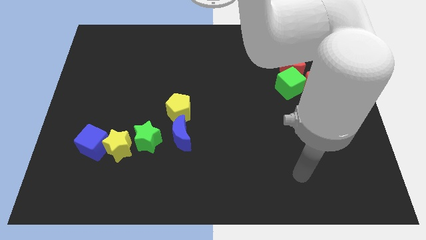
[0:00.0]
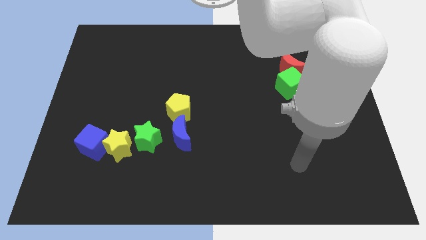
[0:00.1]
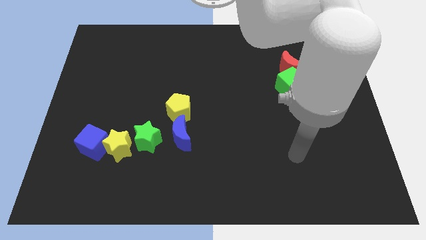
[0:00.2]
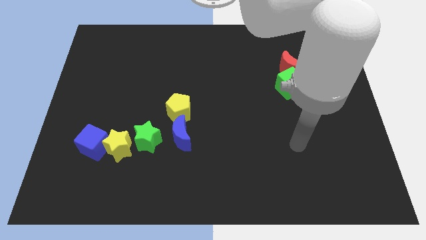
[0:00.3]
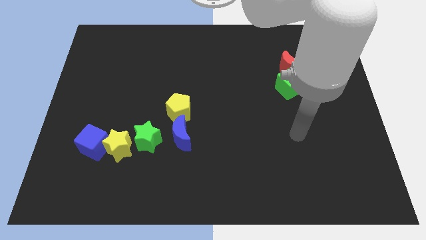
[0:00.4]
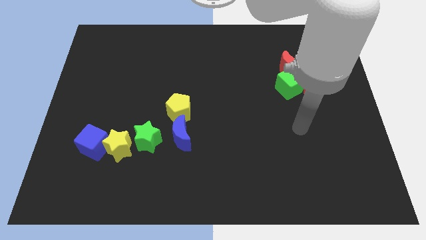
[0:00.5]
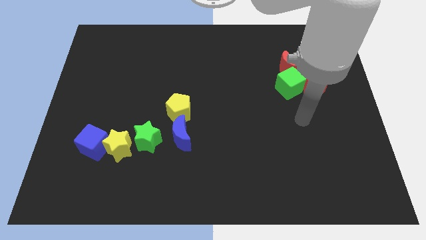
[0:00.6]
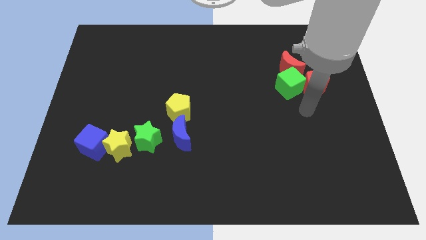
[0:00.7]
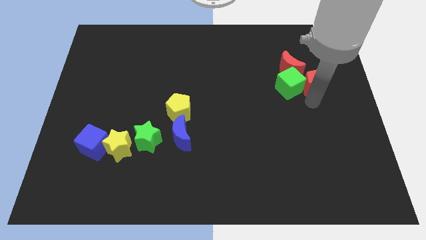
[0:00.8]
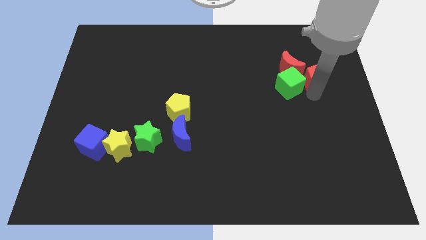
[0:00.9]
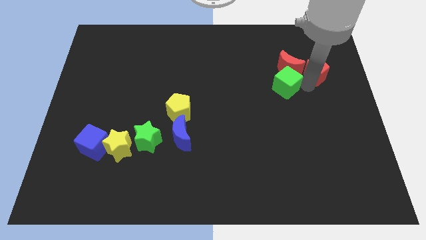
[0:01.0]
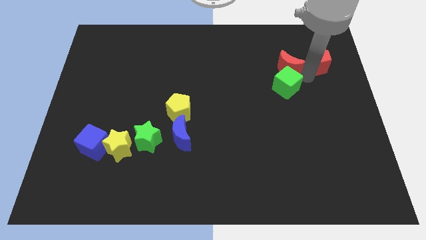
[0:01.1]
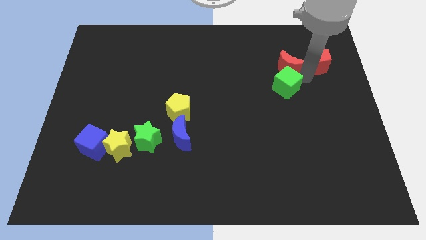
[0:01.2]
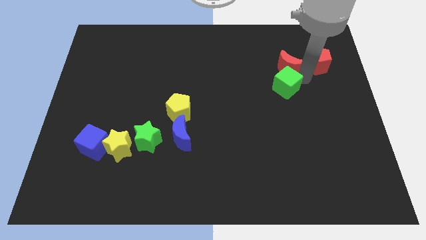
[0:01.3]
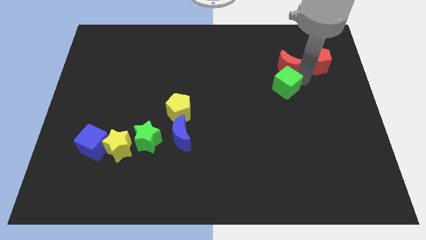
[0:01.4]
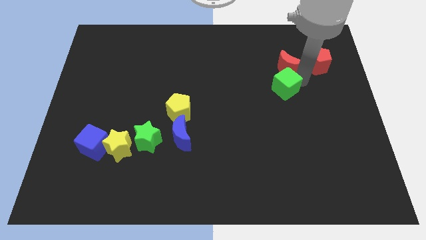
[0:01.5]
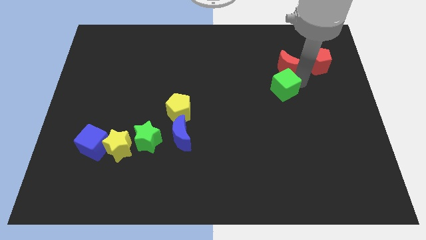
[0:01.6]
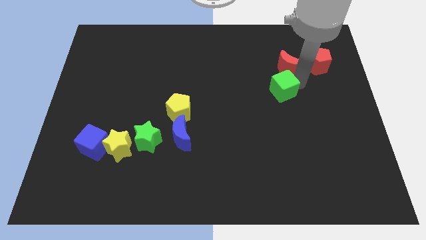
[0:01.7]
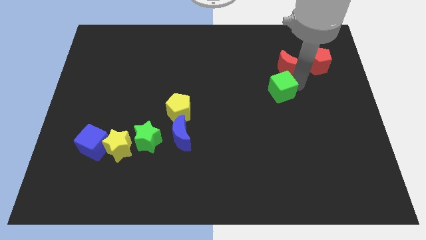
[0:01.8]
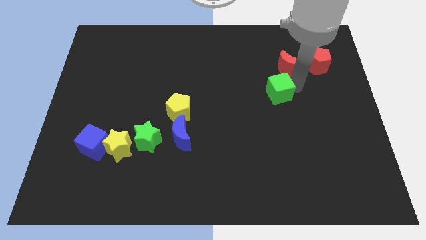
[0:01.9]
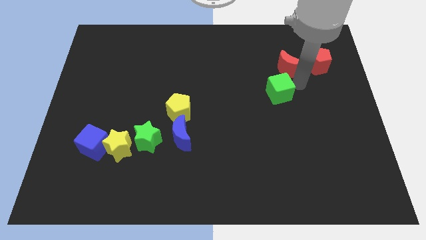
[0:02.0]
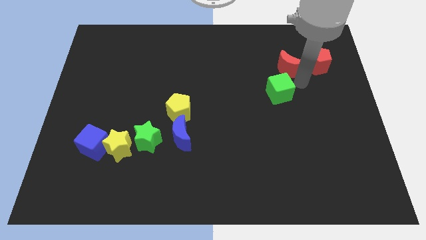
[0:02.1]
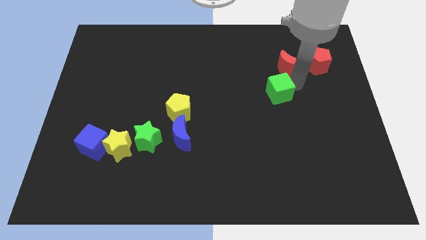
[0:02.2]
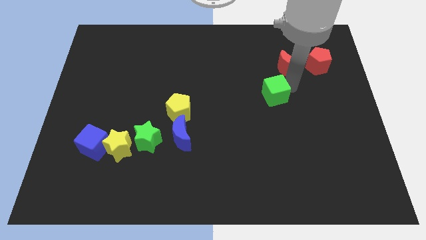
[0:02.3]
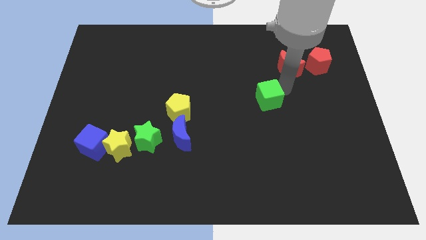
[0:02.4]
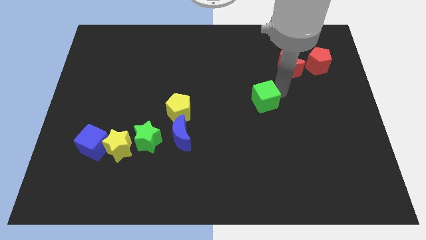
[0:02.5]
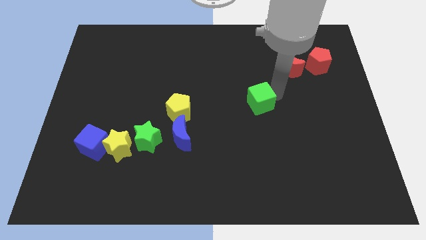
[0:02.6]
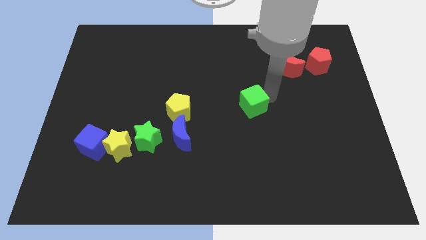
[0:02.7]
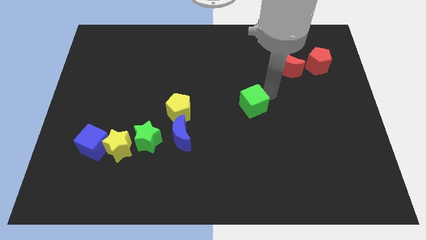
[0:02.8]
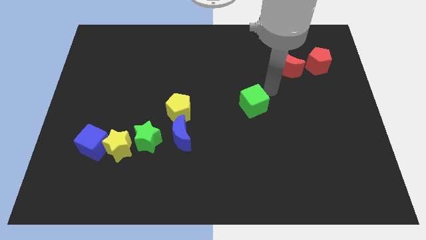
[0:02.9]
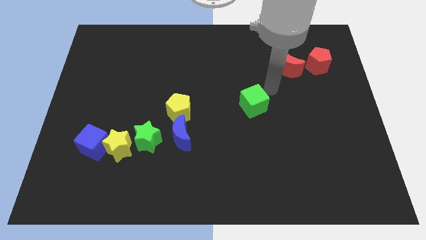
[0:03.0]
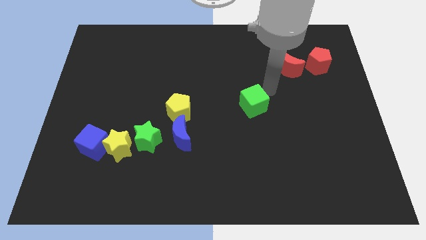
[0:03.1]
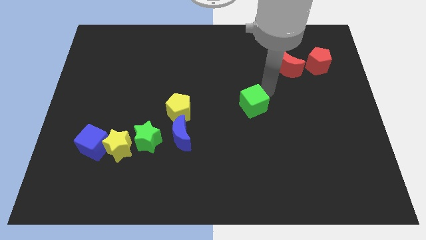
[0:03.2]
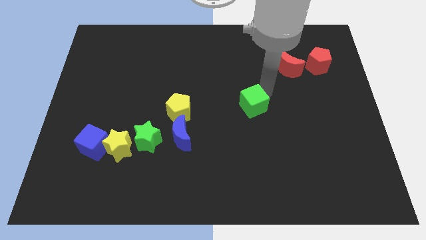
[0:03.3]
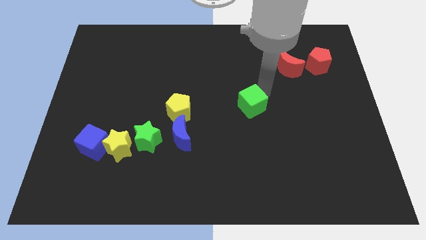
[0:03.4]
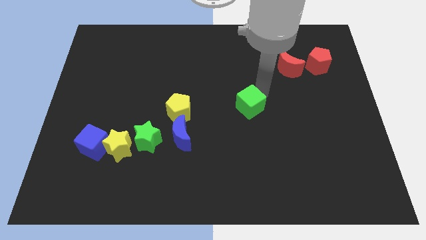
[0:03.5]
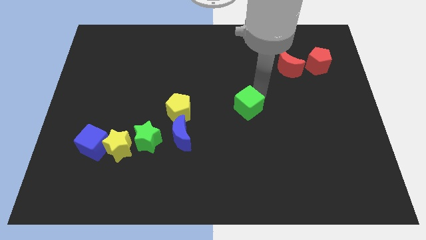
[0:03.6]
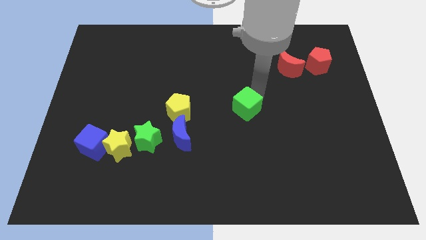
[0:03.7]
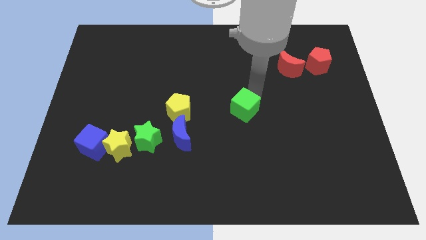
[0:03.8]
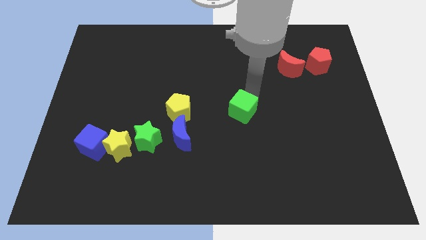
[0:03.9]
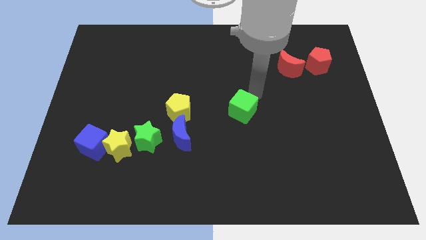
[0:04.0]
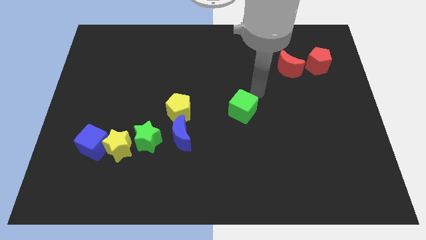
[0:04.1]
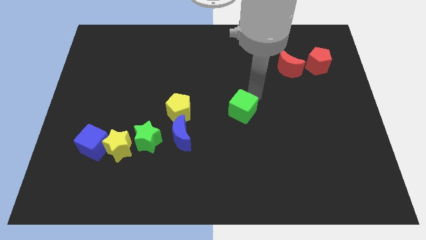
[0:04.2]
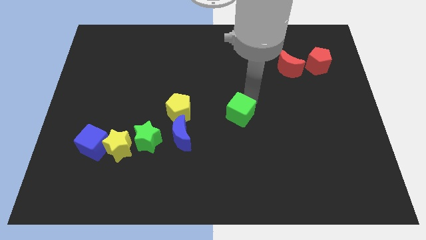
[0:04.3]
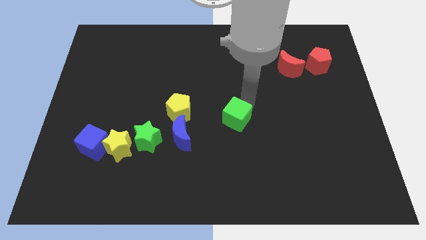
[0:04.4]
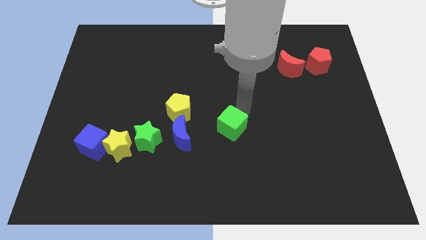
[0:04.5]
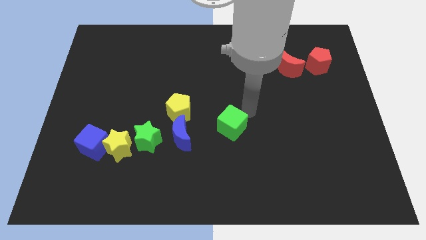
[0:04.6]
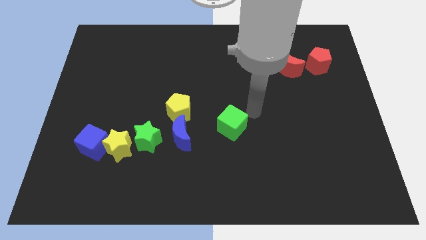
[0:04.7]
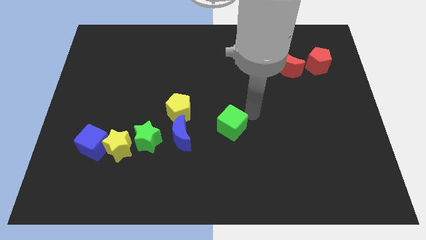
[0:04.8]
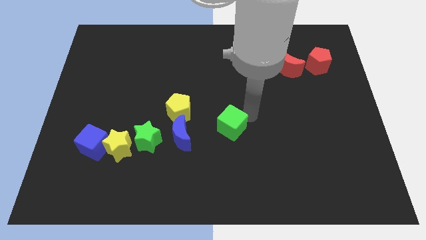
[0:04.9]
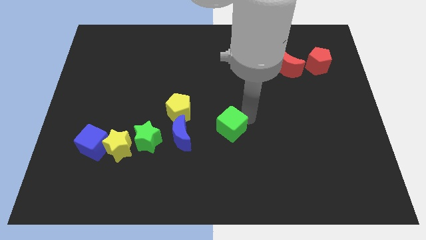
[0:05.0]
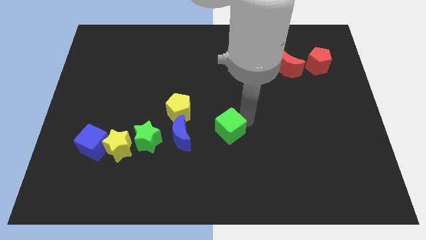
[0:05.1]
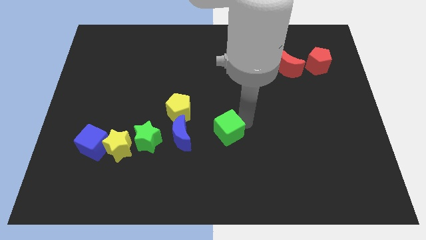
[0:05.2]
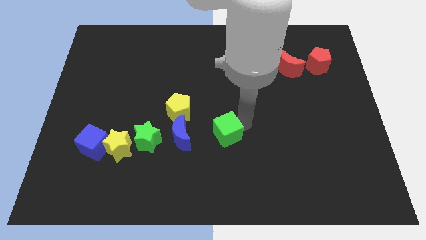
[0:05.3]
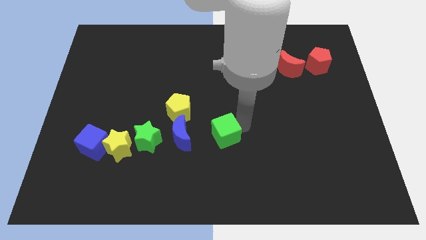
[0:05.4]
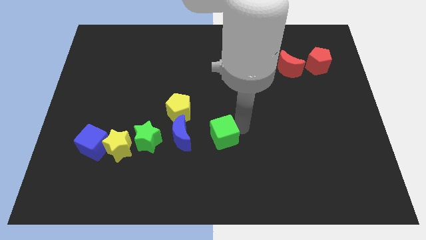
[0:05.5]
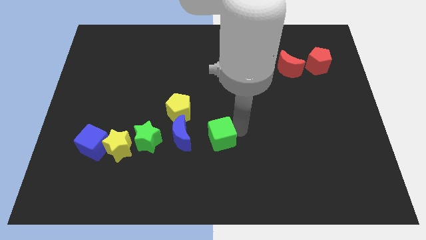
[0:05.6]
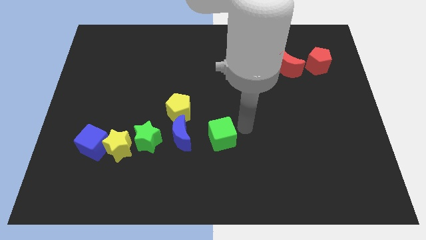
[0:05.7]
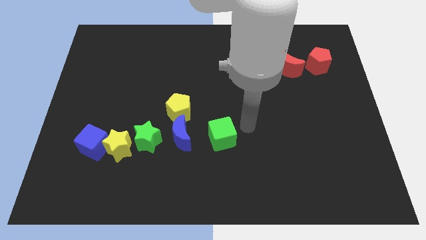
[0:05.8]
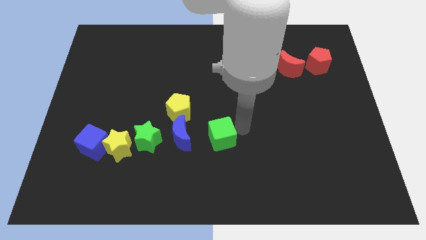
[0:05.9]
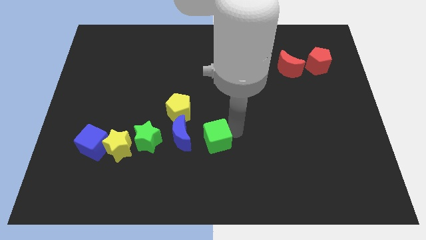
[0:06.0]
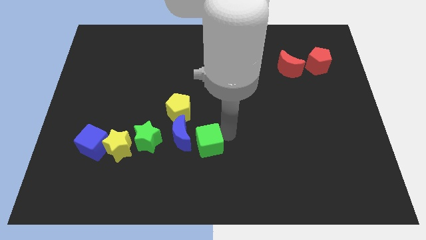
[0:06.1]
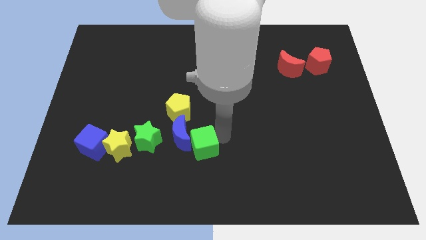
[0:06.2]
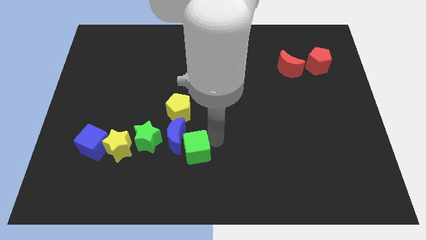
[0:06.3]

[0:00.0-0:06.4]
slide the green cube right of the yellow star

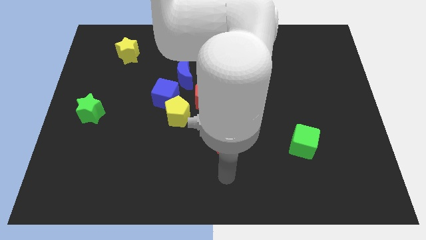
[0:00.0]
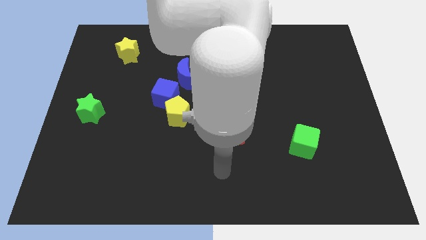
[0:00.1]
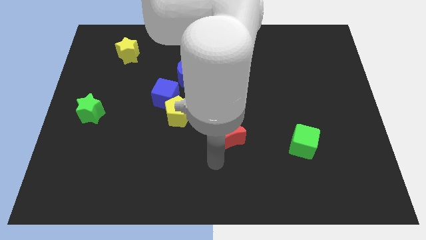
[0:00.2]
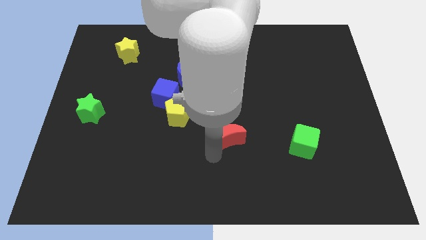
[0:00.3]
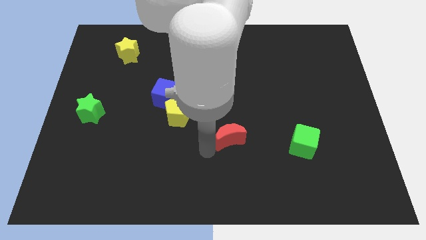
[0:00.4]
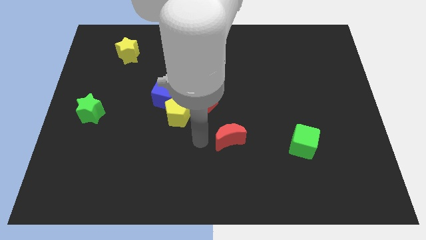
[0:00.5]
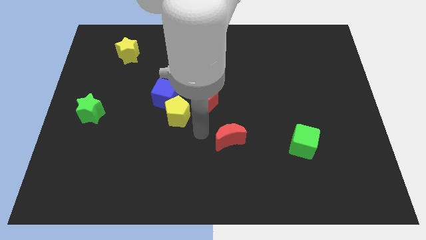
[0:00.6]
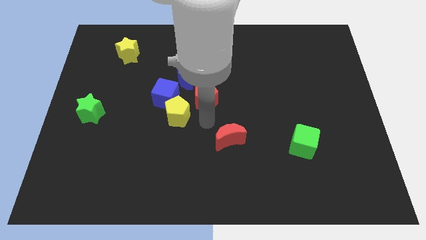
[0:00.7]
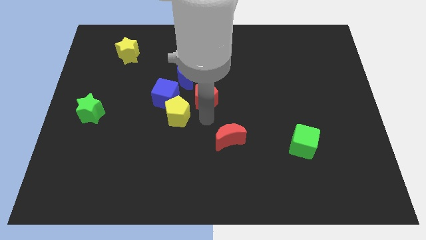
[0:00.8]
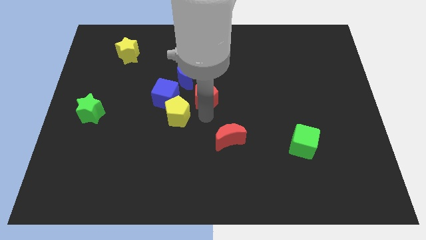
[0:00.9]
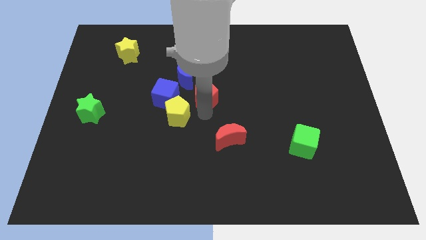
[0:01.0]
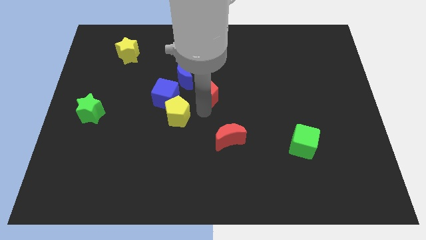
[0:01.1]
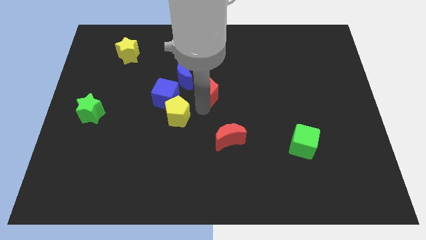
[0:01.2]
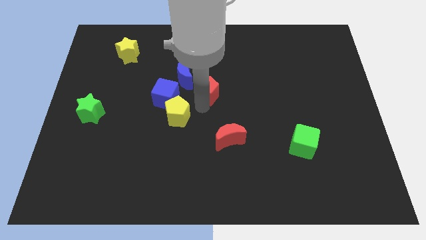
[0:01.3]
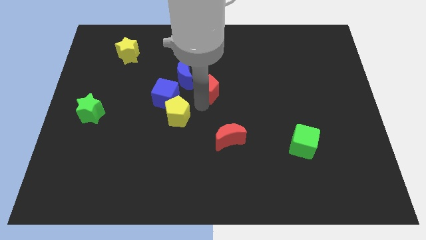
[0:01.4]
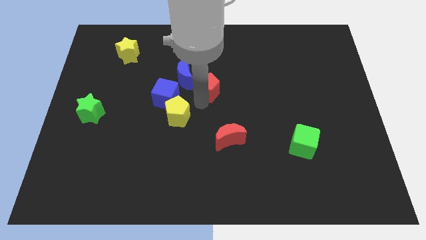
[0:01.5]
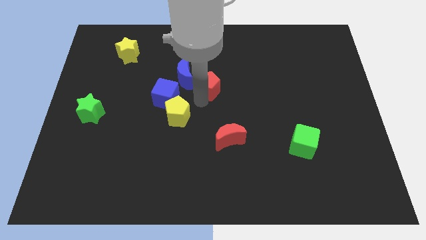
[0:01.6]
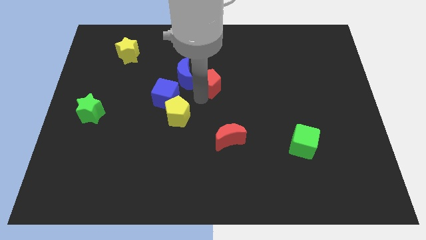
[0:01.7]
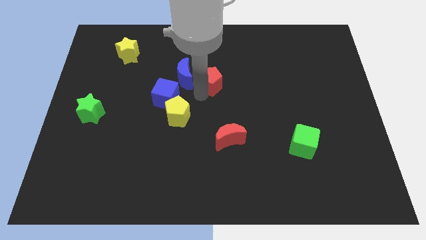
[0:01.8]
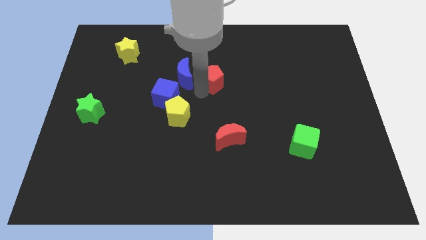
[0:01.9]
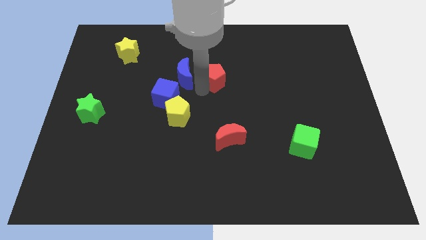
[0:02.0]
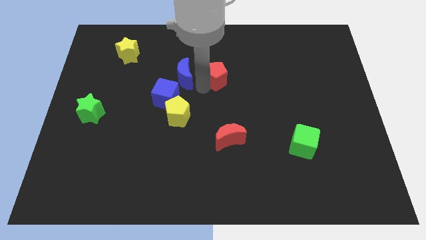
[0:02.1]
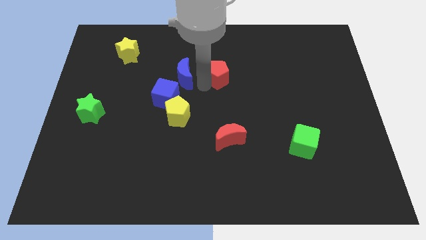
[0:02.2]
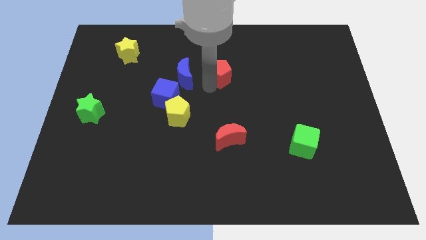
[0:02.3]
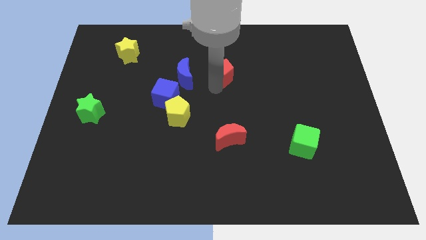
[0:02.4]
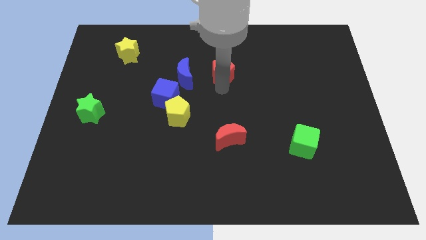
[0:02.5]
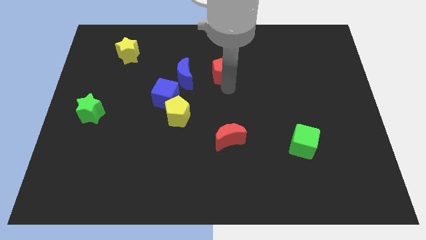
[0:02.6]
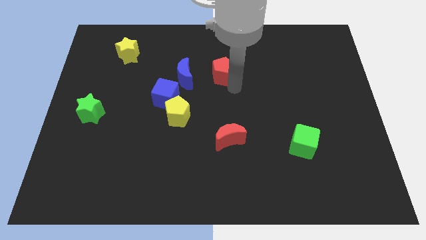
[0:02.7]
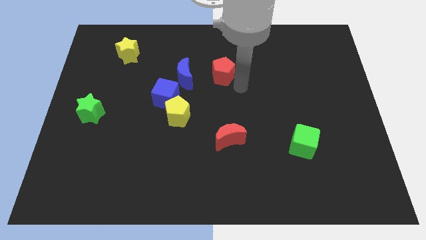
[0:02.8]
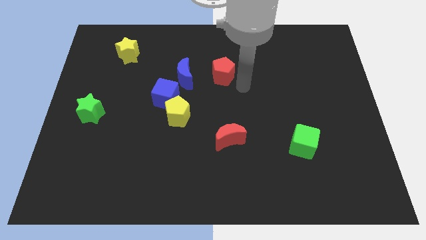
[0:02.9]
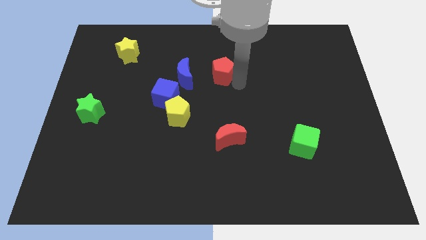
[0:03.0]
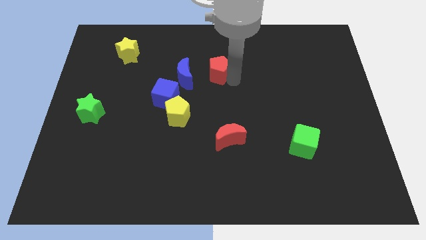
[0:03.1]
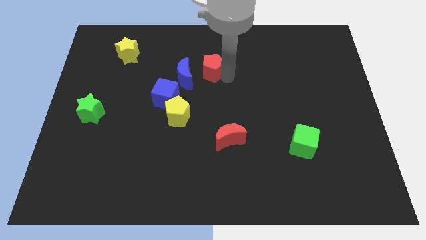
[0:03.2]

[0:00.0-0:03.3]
push the red pentagon to the top right of the blue moon
